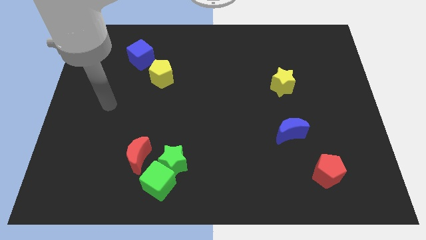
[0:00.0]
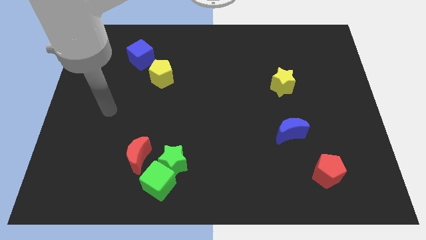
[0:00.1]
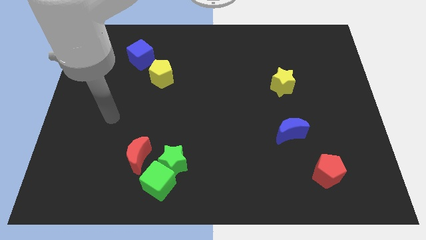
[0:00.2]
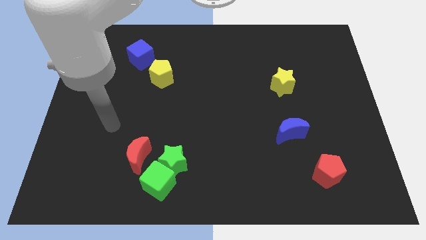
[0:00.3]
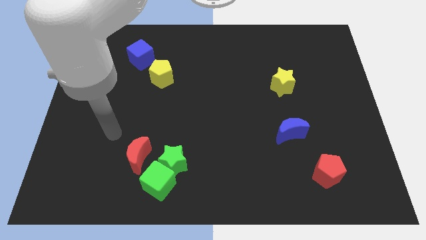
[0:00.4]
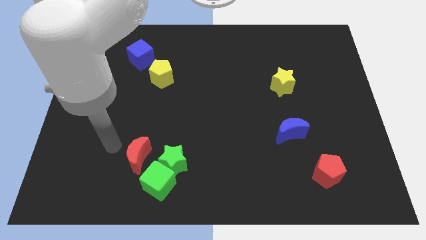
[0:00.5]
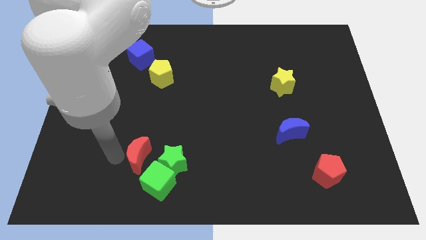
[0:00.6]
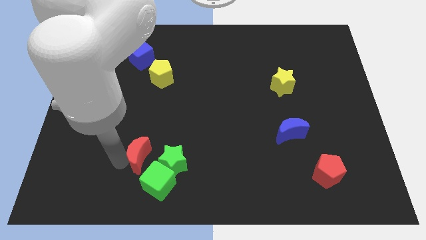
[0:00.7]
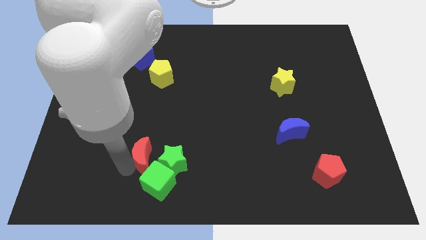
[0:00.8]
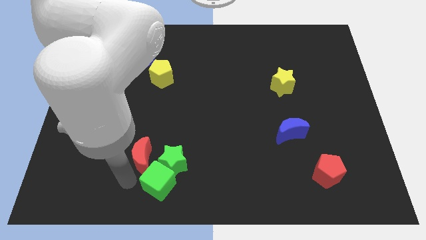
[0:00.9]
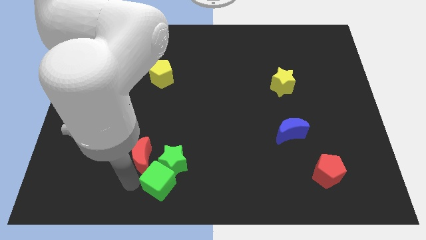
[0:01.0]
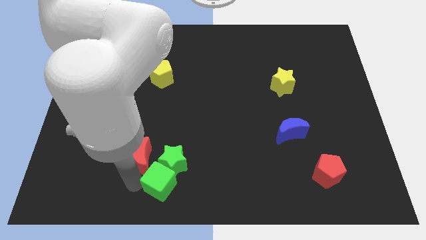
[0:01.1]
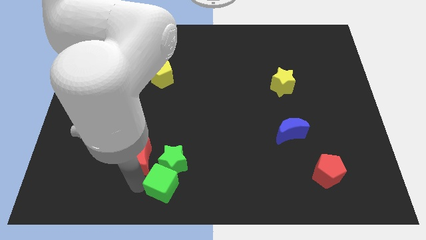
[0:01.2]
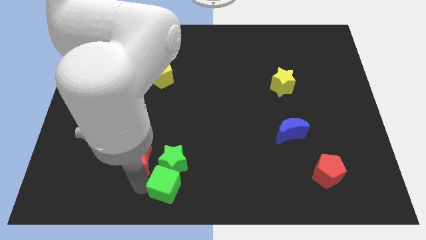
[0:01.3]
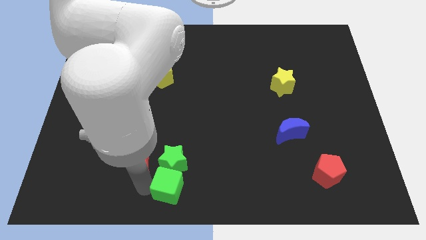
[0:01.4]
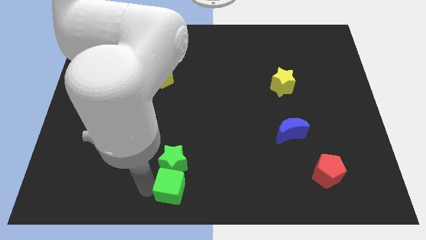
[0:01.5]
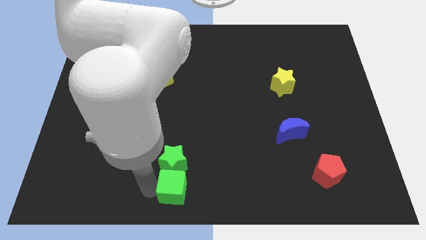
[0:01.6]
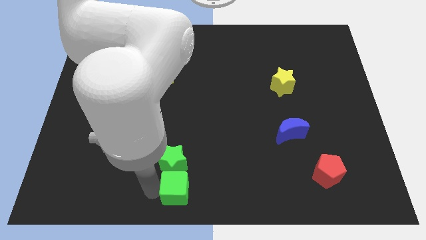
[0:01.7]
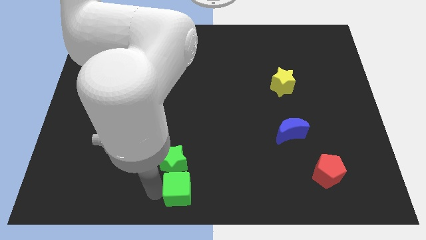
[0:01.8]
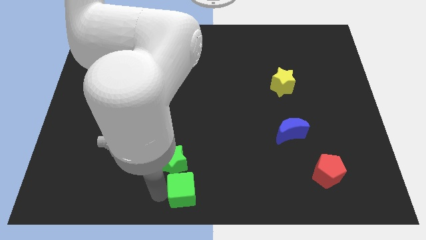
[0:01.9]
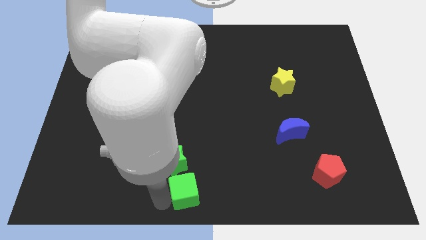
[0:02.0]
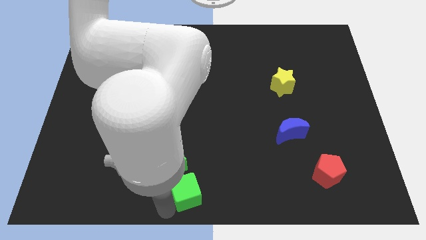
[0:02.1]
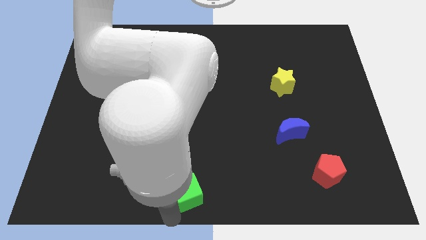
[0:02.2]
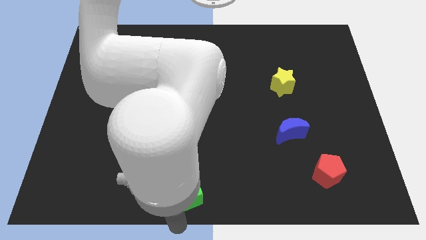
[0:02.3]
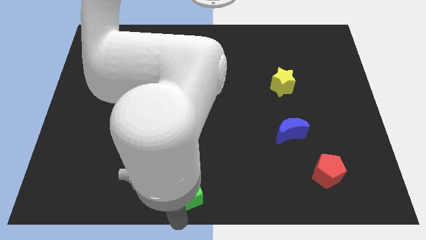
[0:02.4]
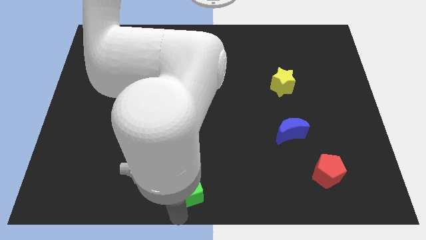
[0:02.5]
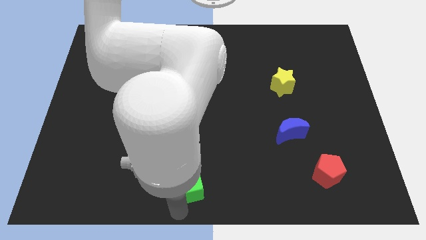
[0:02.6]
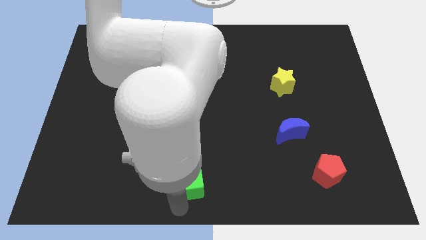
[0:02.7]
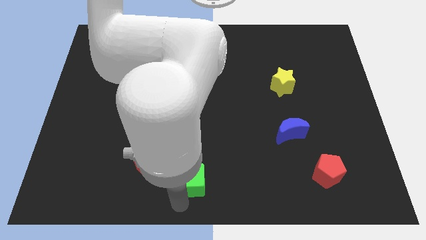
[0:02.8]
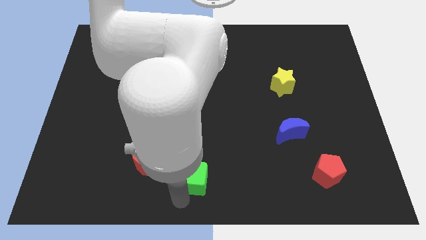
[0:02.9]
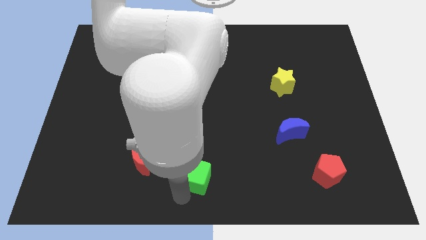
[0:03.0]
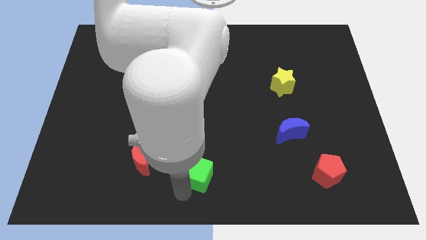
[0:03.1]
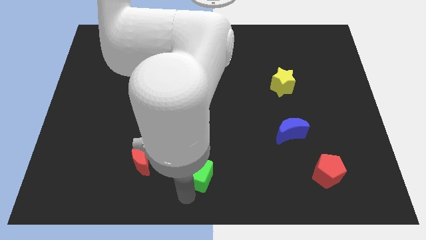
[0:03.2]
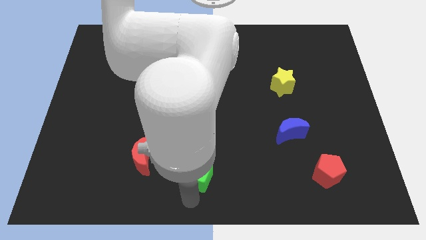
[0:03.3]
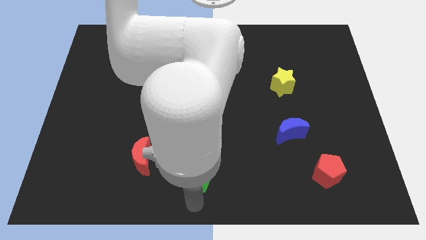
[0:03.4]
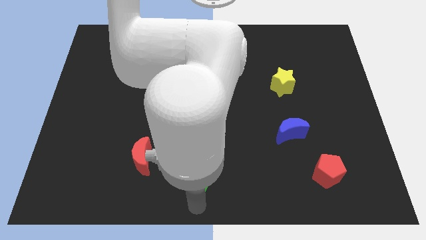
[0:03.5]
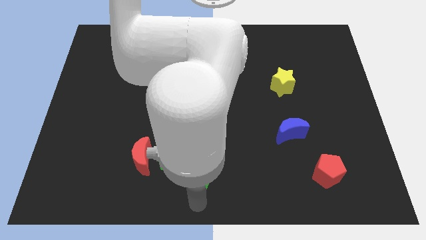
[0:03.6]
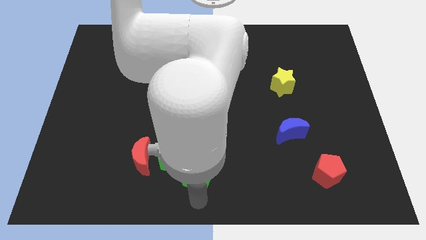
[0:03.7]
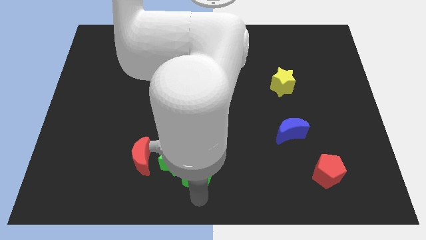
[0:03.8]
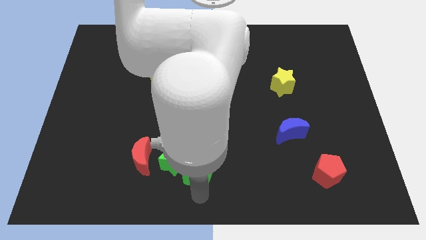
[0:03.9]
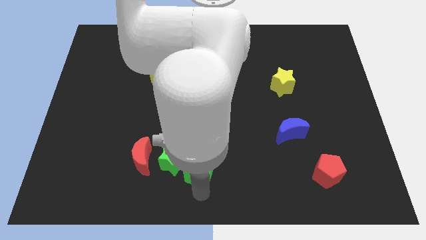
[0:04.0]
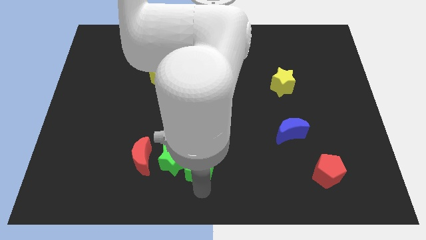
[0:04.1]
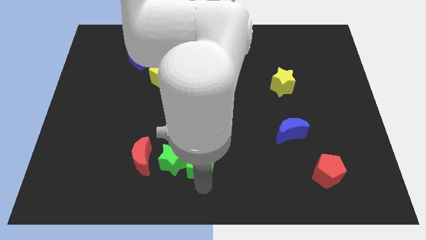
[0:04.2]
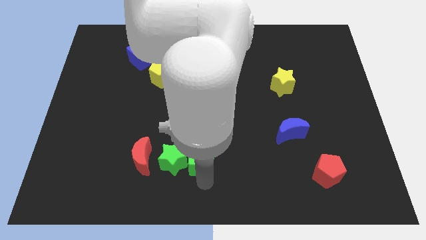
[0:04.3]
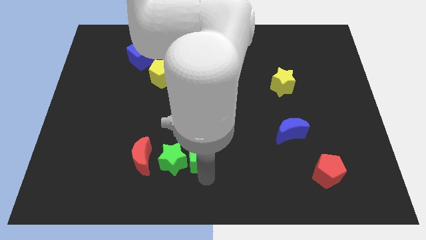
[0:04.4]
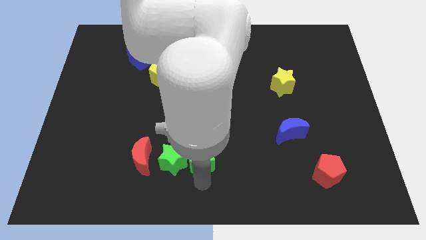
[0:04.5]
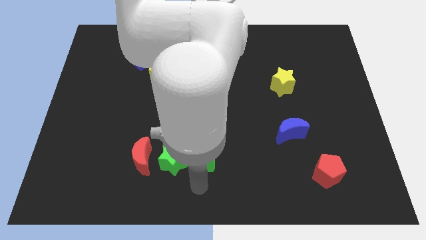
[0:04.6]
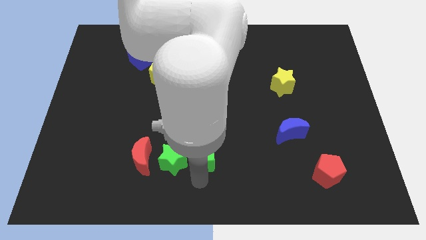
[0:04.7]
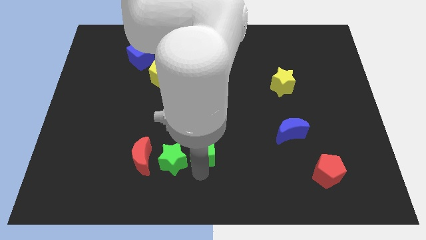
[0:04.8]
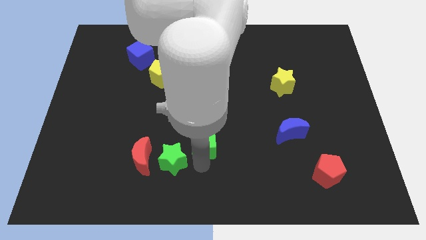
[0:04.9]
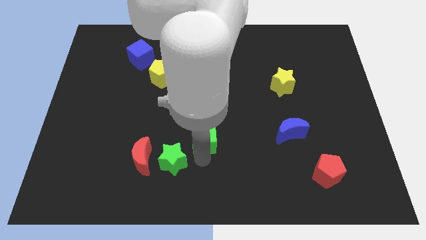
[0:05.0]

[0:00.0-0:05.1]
push the green cube to the middle of the board
